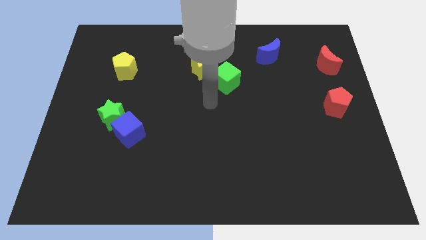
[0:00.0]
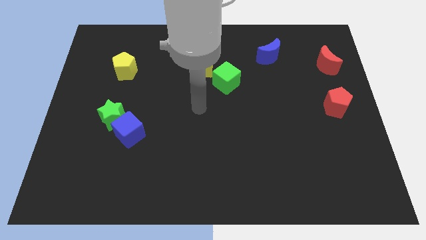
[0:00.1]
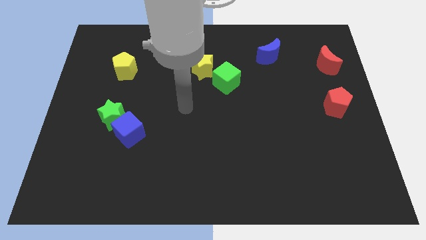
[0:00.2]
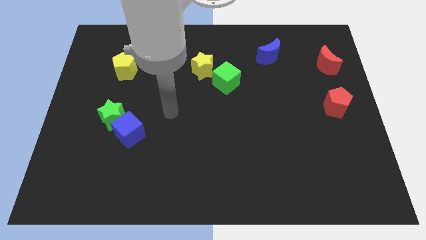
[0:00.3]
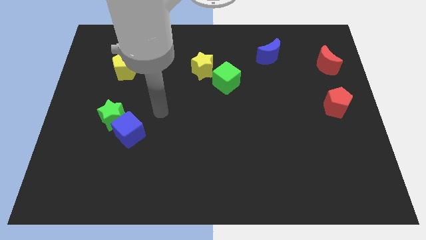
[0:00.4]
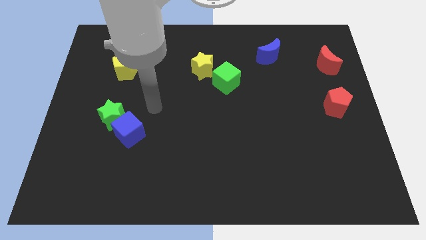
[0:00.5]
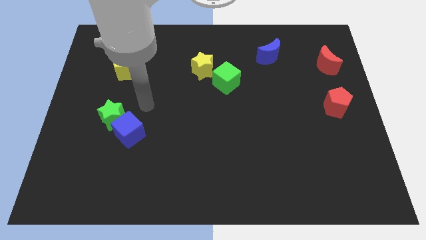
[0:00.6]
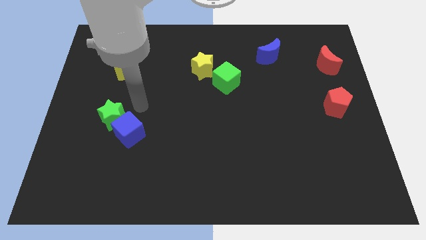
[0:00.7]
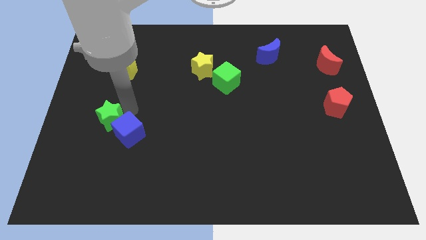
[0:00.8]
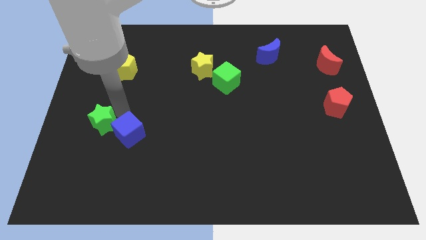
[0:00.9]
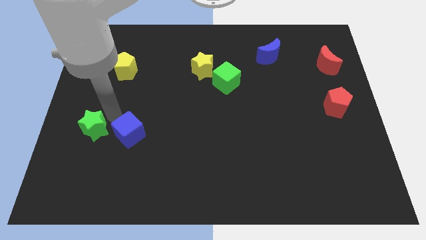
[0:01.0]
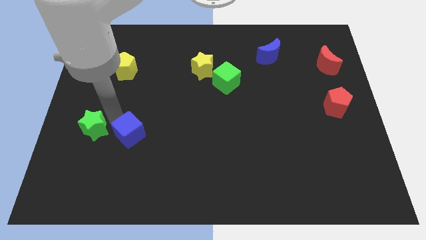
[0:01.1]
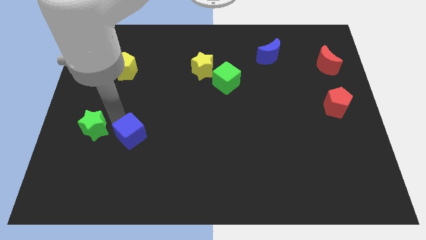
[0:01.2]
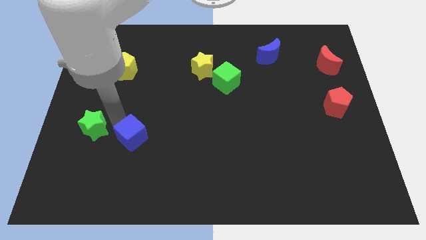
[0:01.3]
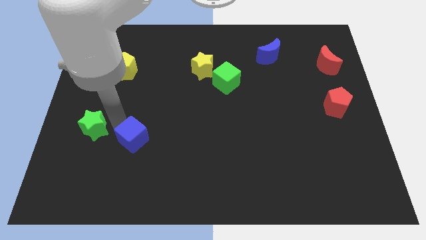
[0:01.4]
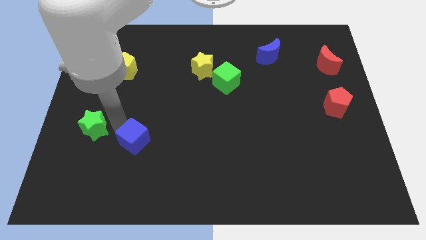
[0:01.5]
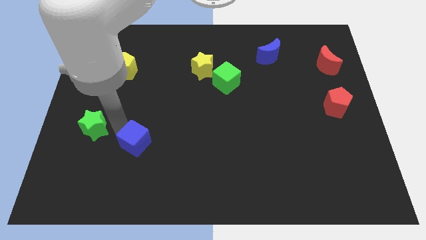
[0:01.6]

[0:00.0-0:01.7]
move the blue cube away from the green star

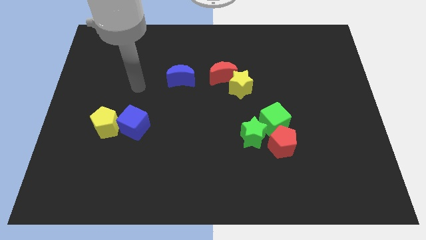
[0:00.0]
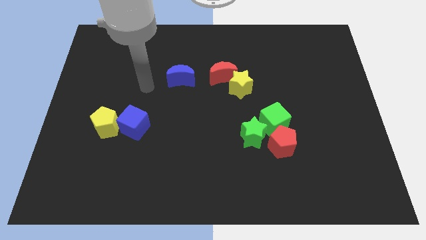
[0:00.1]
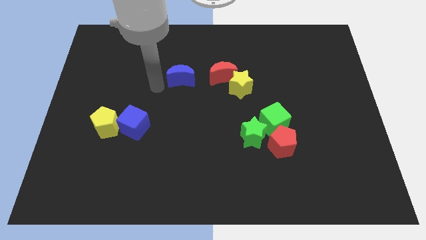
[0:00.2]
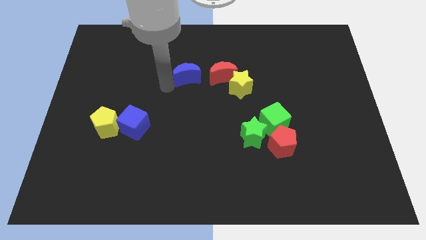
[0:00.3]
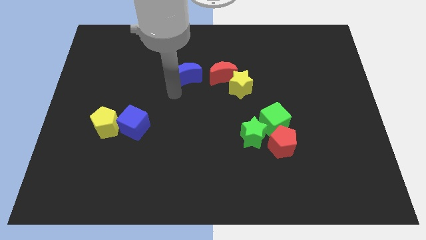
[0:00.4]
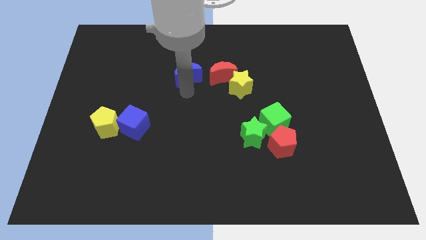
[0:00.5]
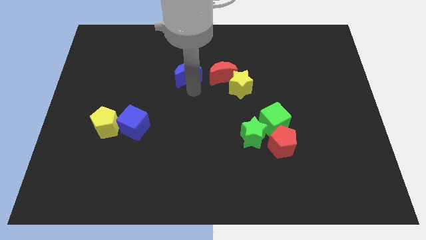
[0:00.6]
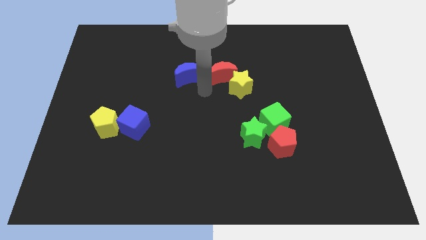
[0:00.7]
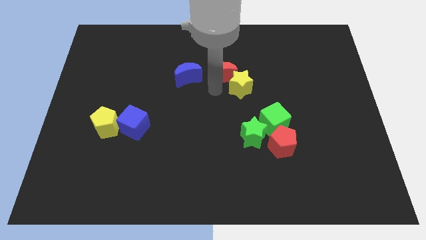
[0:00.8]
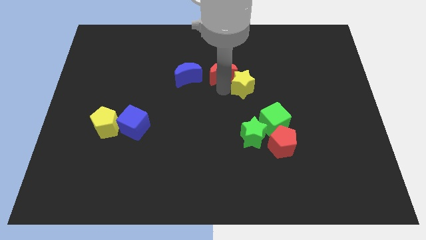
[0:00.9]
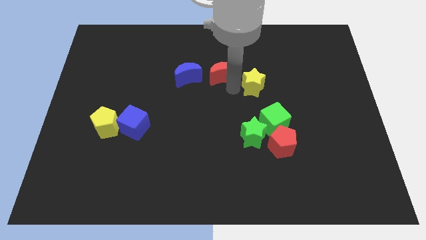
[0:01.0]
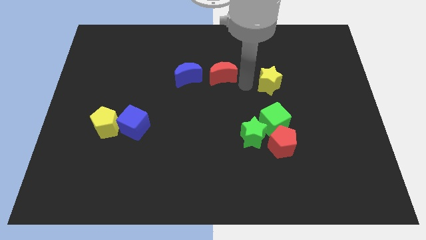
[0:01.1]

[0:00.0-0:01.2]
separate the red moon from the yellow star

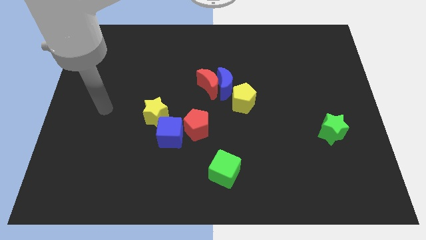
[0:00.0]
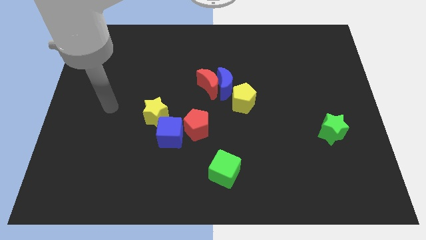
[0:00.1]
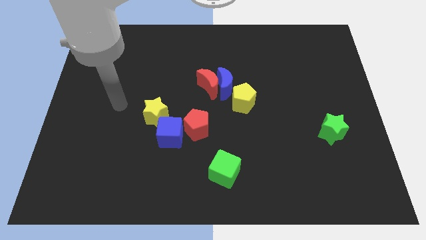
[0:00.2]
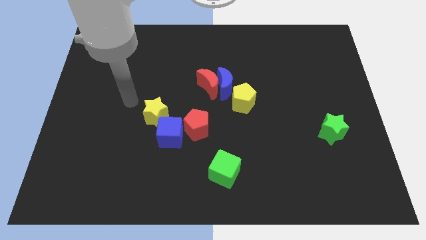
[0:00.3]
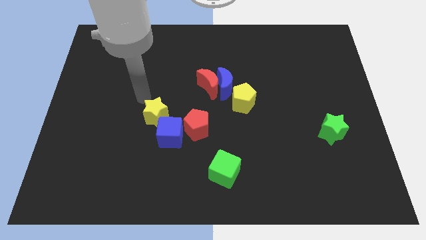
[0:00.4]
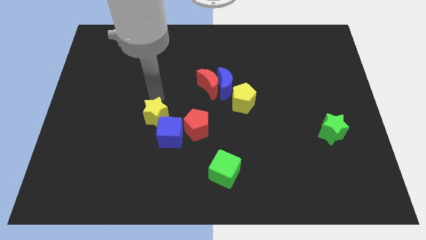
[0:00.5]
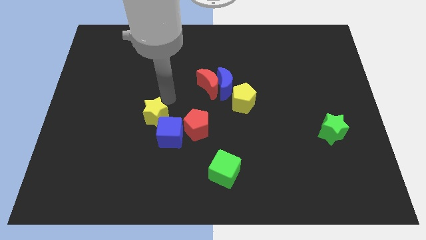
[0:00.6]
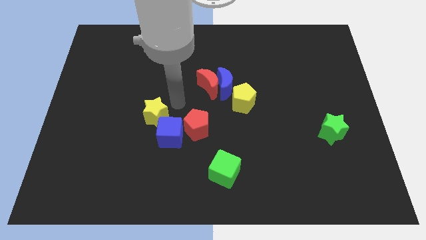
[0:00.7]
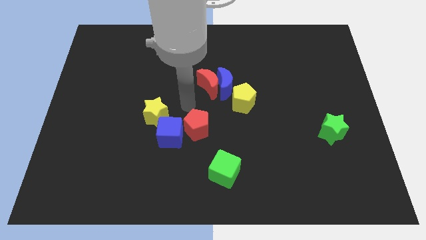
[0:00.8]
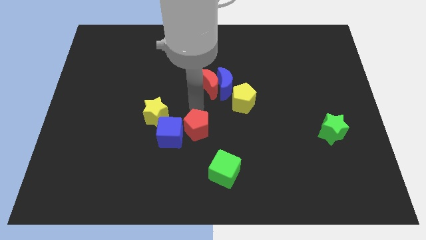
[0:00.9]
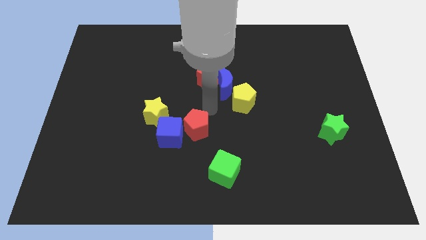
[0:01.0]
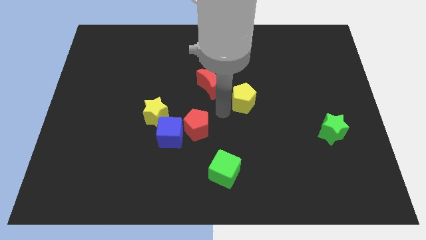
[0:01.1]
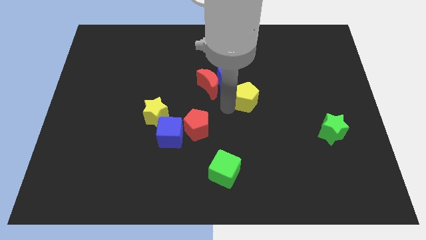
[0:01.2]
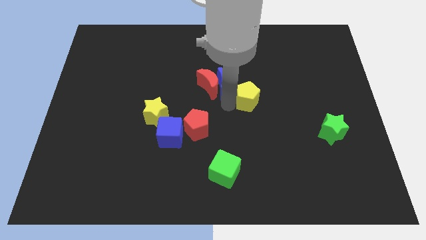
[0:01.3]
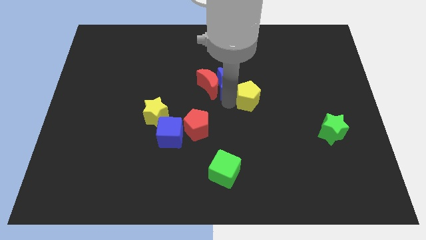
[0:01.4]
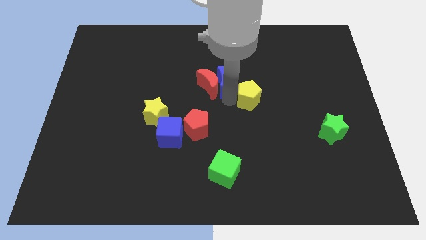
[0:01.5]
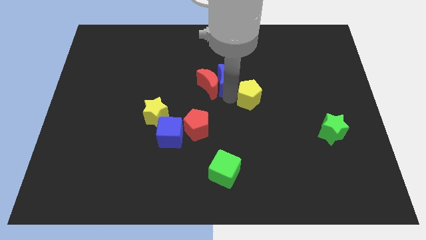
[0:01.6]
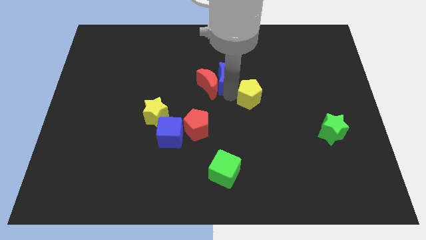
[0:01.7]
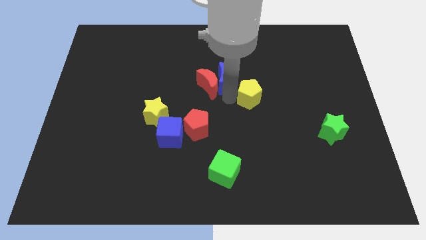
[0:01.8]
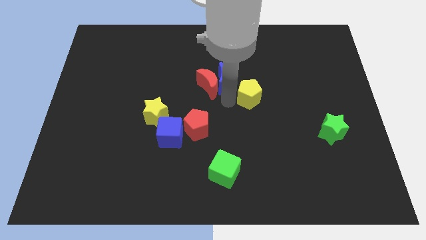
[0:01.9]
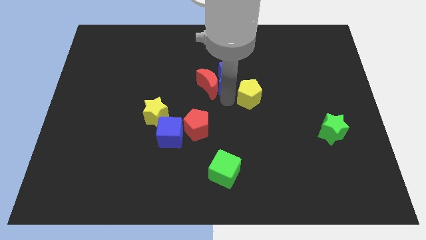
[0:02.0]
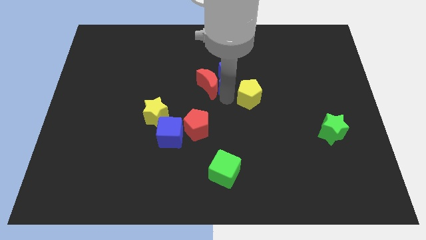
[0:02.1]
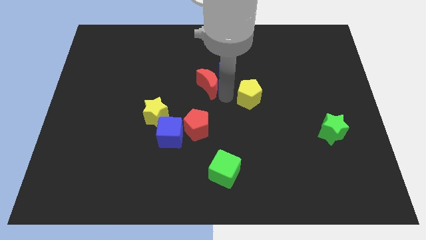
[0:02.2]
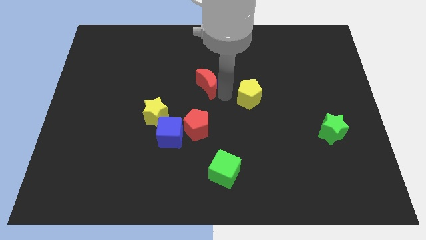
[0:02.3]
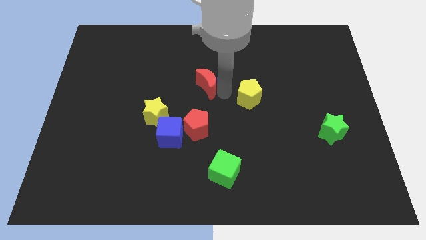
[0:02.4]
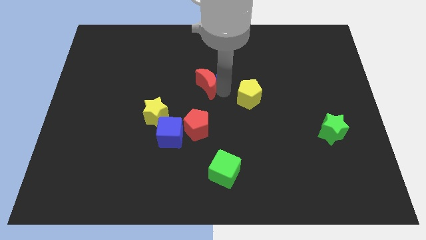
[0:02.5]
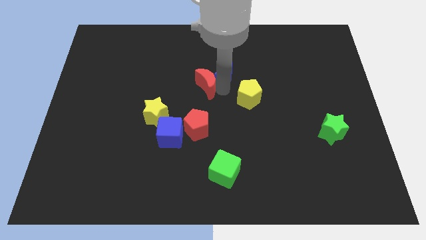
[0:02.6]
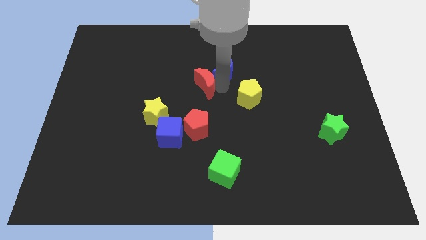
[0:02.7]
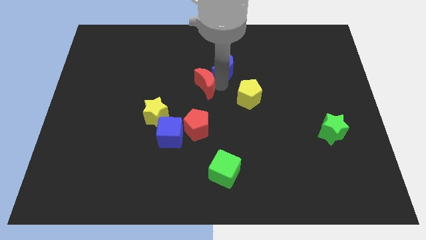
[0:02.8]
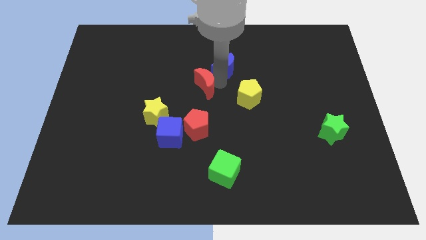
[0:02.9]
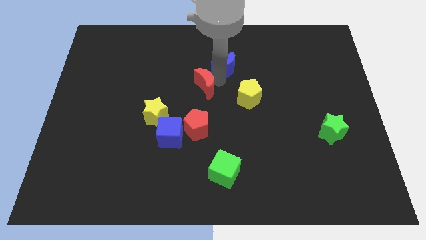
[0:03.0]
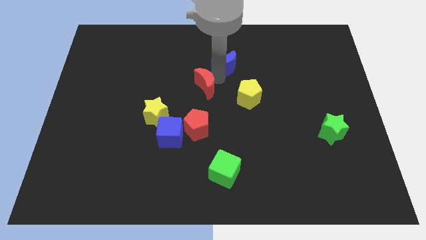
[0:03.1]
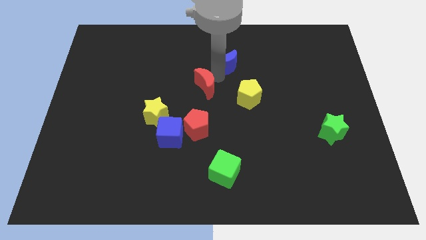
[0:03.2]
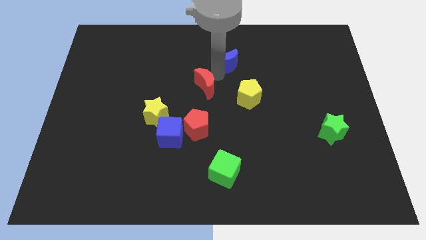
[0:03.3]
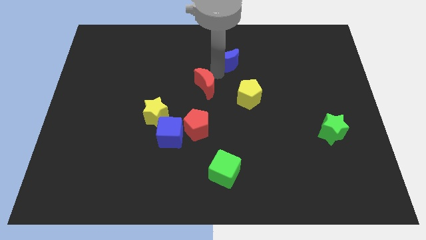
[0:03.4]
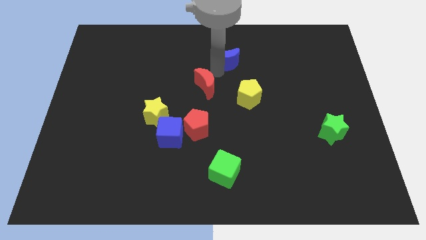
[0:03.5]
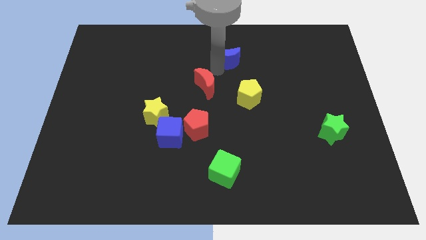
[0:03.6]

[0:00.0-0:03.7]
move the blue moon away from the red moon and yellow pentagon

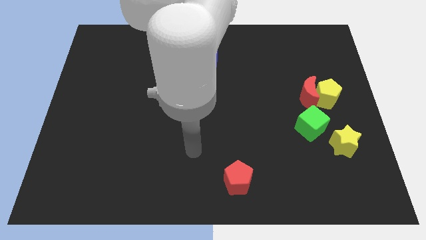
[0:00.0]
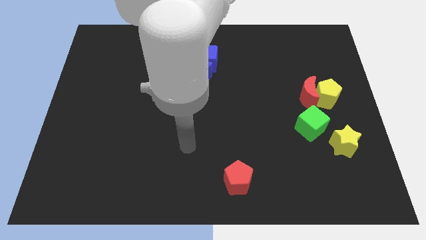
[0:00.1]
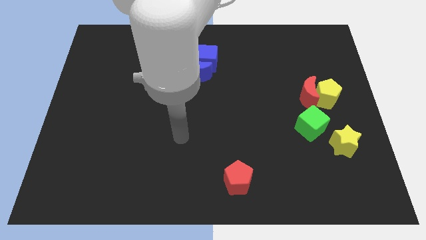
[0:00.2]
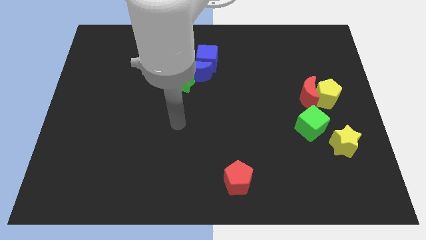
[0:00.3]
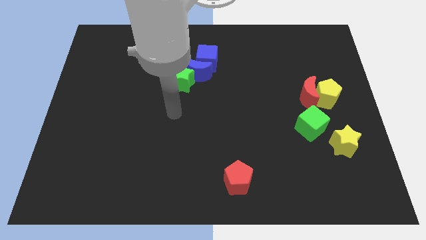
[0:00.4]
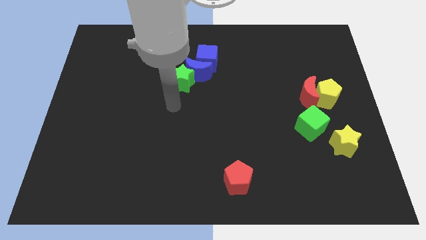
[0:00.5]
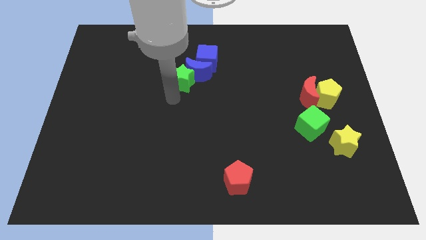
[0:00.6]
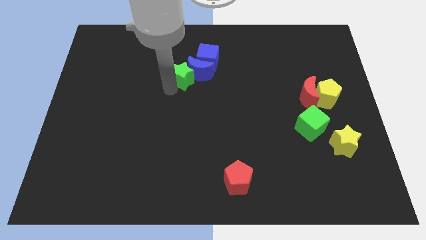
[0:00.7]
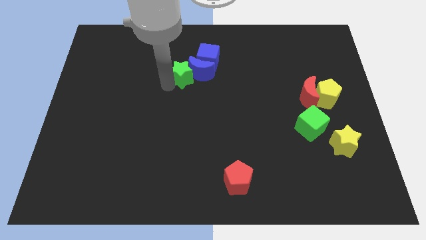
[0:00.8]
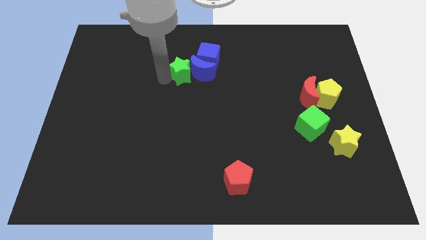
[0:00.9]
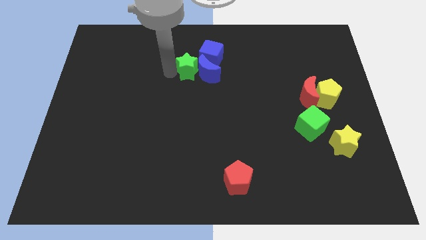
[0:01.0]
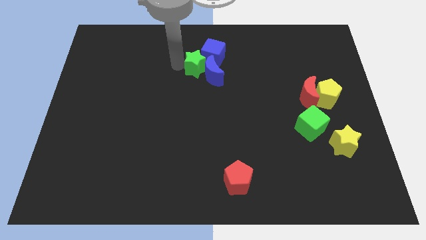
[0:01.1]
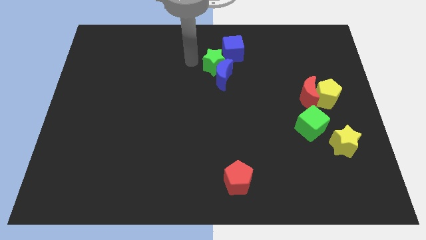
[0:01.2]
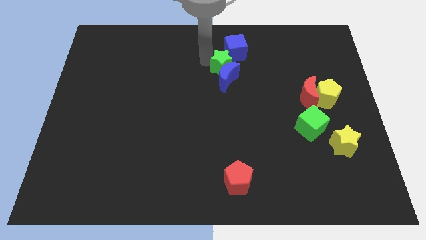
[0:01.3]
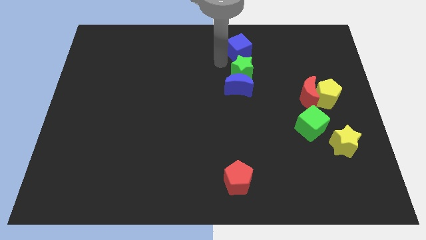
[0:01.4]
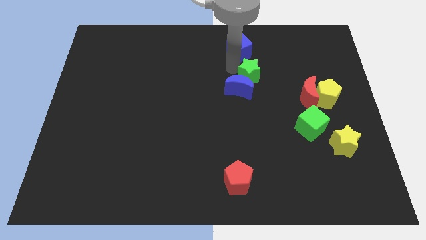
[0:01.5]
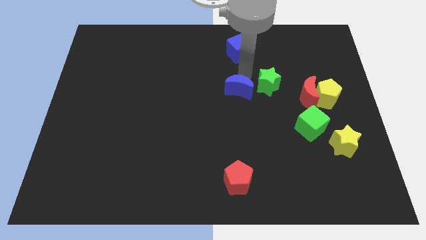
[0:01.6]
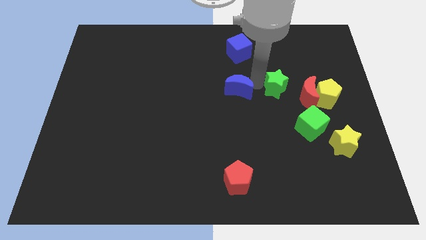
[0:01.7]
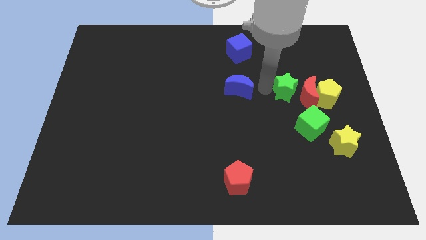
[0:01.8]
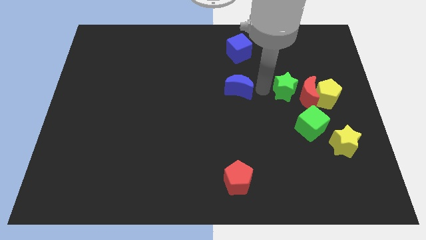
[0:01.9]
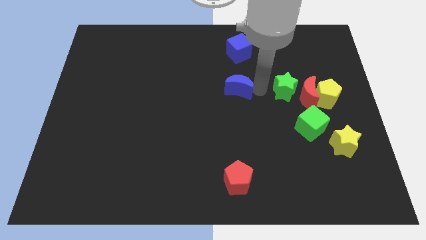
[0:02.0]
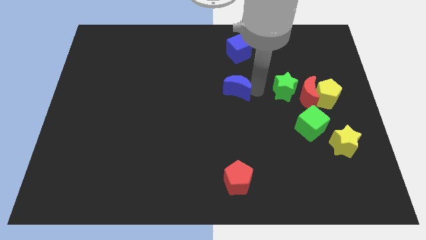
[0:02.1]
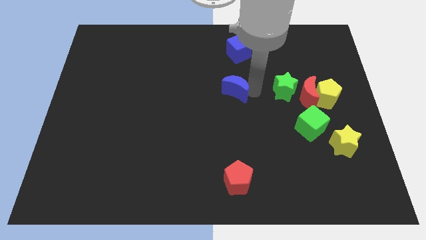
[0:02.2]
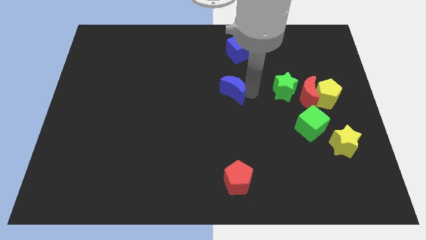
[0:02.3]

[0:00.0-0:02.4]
pull the blue moon apart from the green star and blue cube

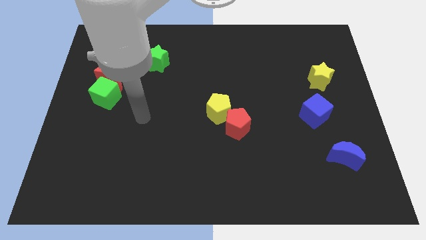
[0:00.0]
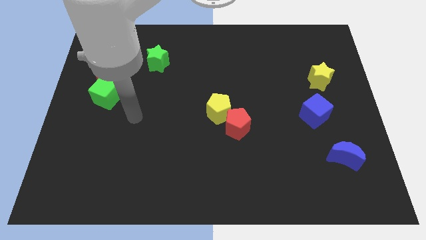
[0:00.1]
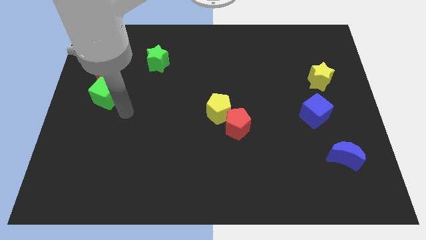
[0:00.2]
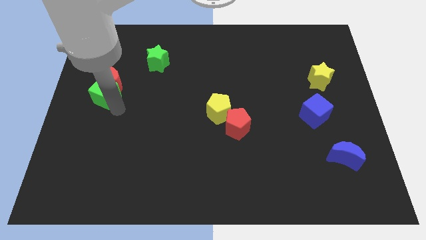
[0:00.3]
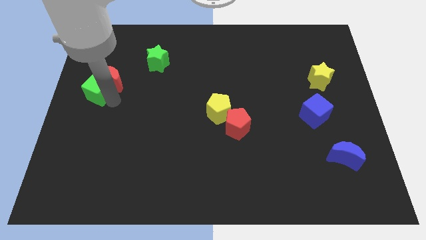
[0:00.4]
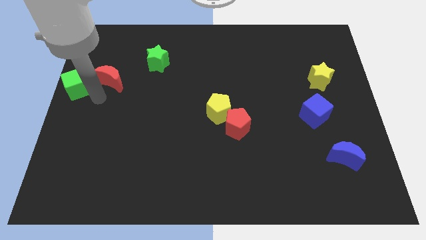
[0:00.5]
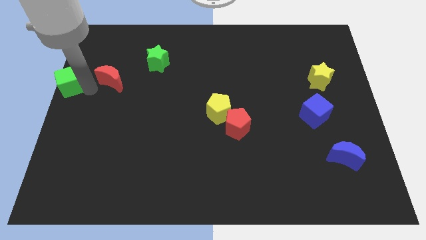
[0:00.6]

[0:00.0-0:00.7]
separate the red moon from the green cube
